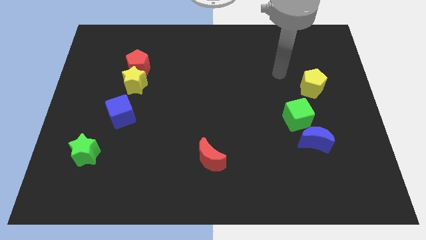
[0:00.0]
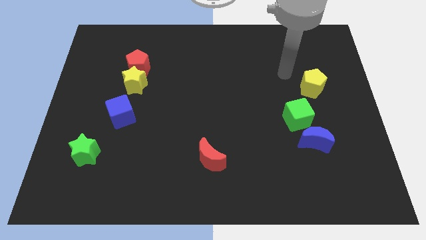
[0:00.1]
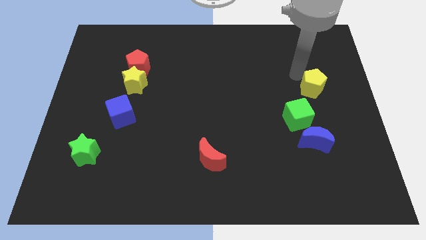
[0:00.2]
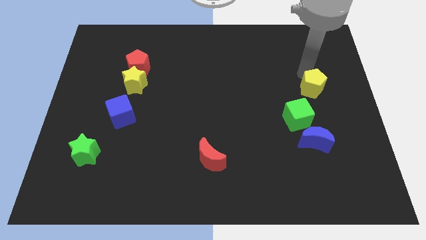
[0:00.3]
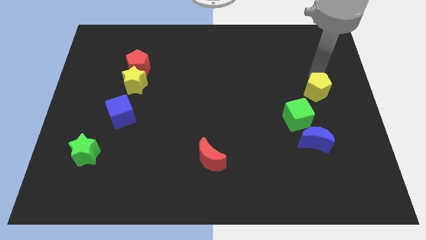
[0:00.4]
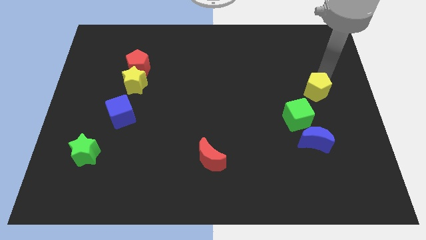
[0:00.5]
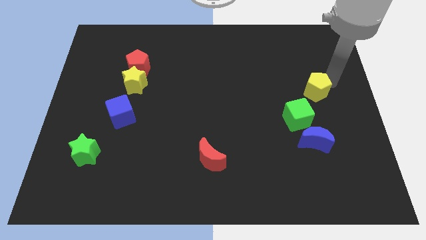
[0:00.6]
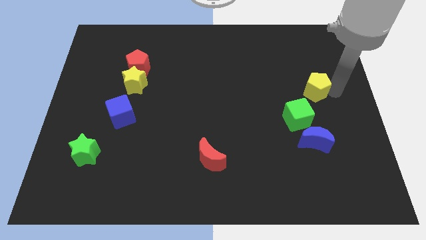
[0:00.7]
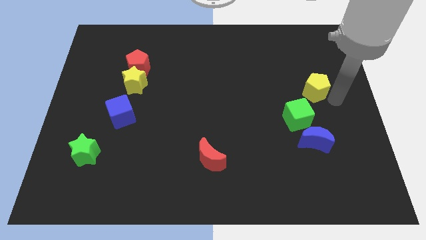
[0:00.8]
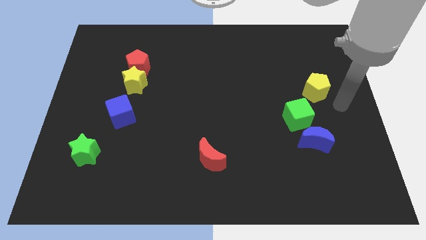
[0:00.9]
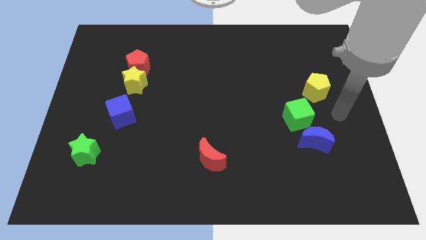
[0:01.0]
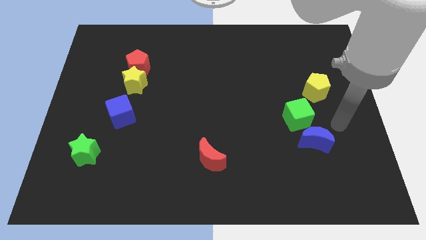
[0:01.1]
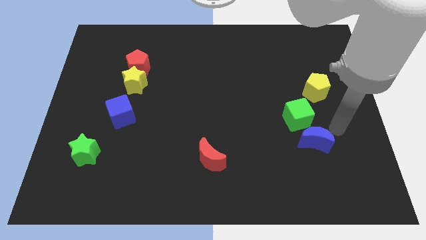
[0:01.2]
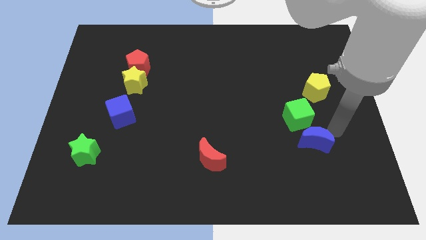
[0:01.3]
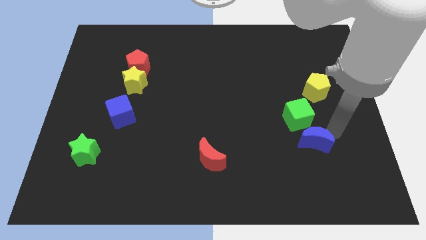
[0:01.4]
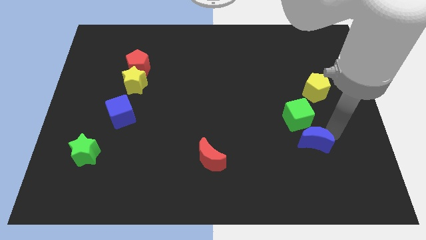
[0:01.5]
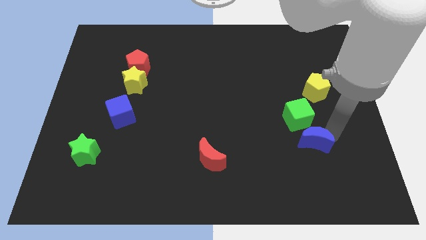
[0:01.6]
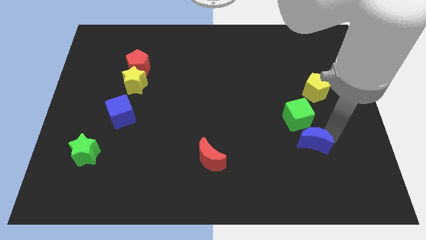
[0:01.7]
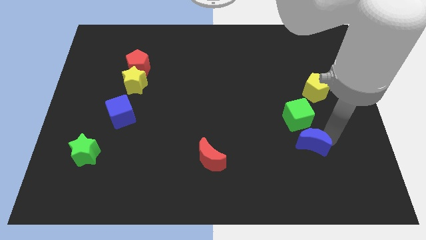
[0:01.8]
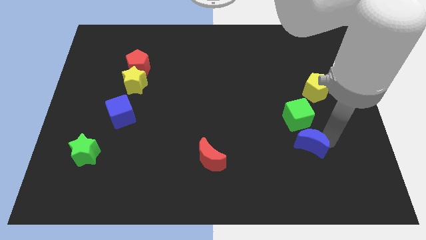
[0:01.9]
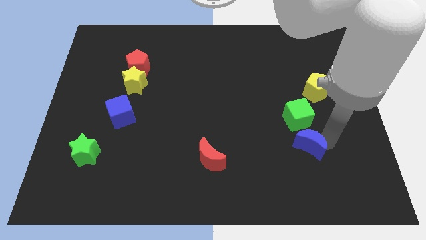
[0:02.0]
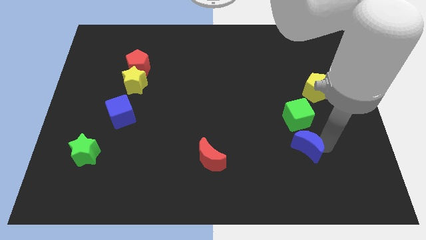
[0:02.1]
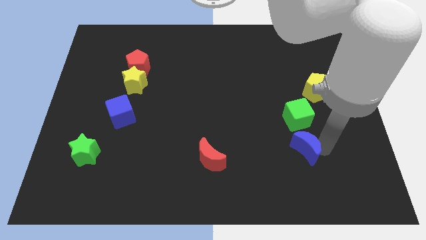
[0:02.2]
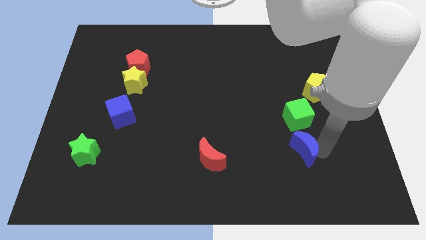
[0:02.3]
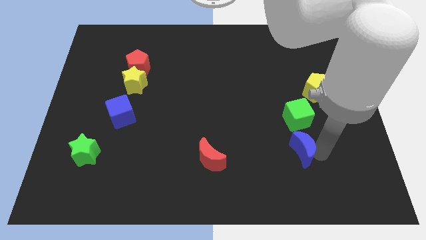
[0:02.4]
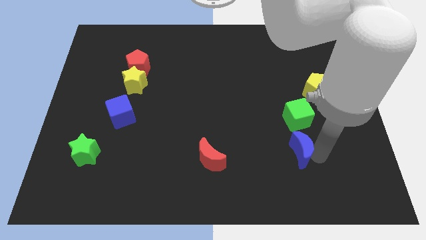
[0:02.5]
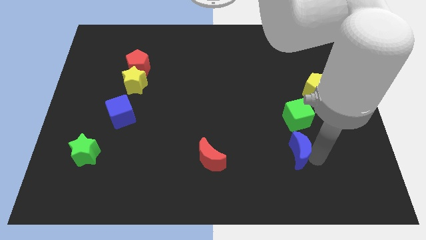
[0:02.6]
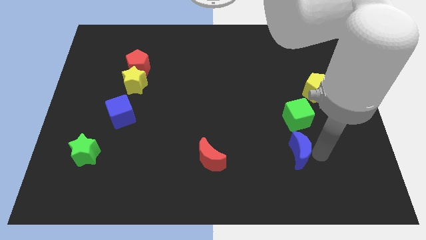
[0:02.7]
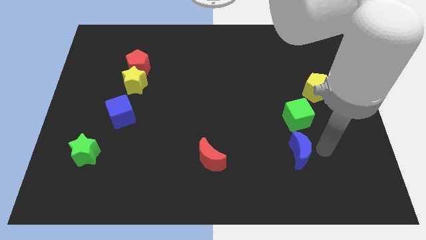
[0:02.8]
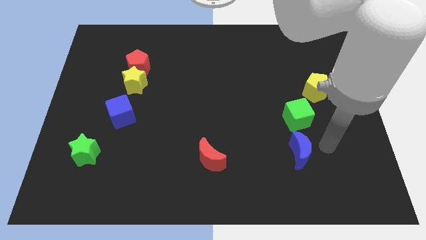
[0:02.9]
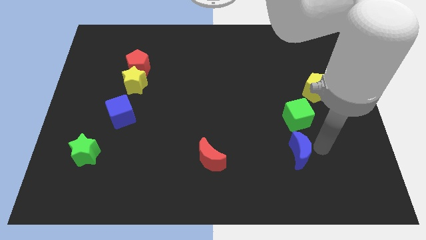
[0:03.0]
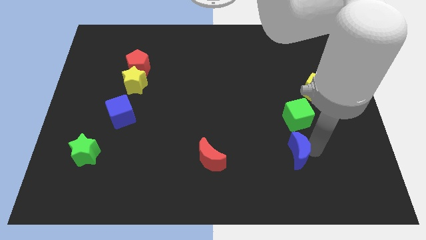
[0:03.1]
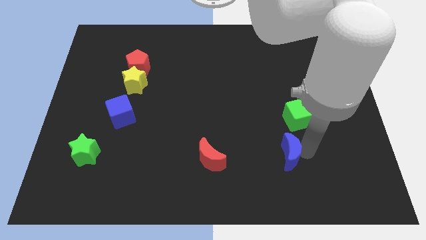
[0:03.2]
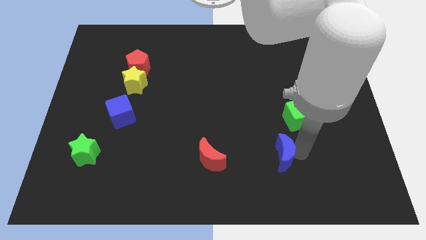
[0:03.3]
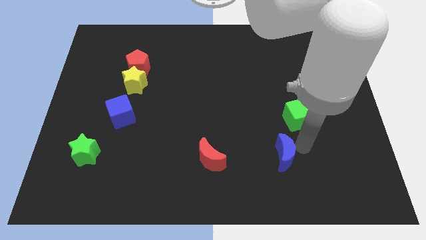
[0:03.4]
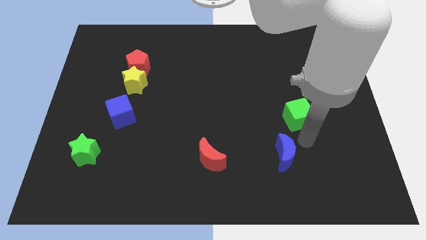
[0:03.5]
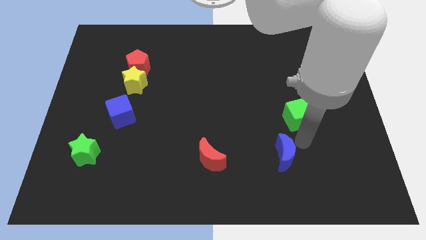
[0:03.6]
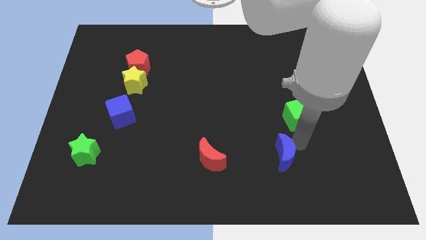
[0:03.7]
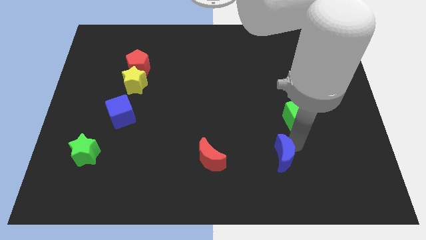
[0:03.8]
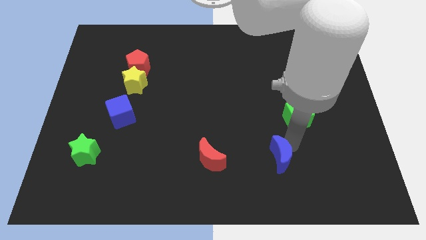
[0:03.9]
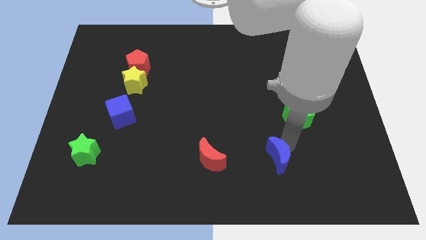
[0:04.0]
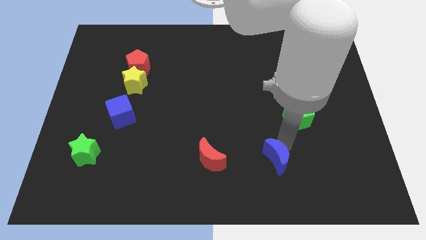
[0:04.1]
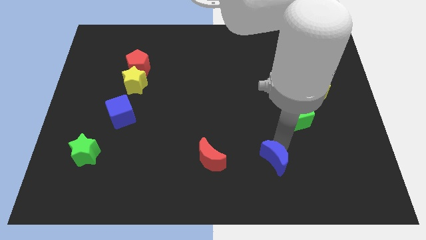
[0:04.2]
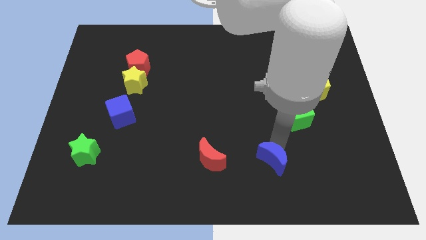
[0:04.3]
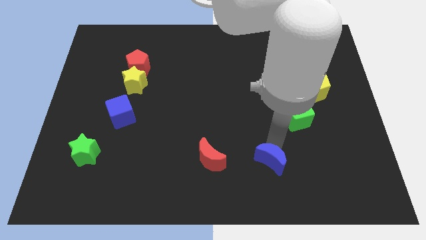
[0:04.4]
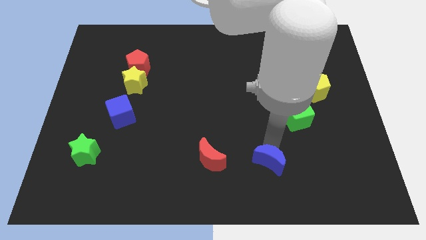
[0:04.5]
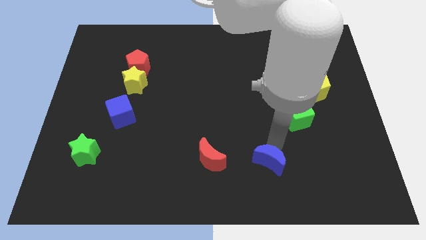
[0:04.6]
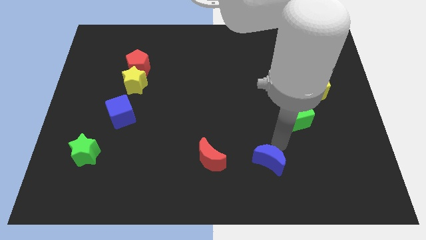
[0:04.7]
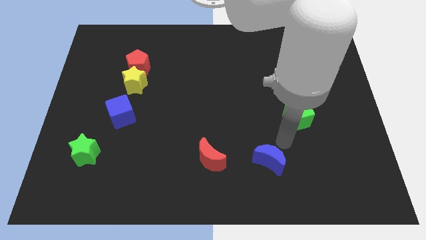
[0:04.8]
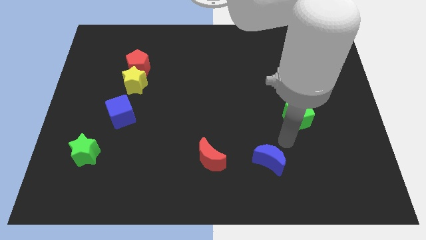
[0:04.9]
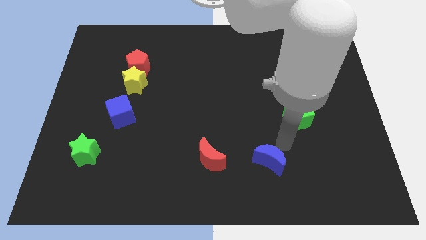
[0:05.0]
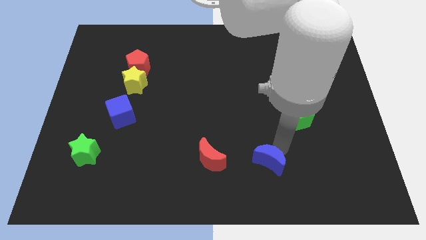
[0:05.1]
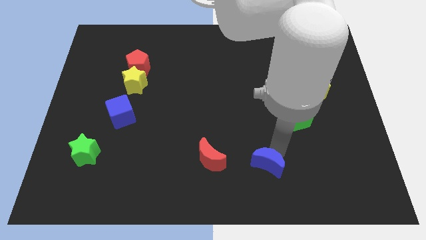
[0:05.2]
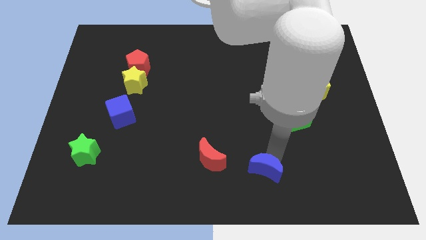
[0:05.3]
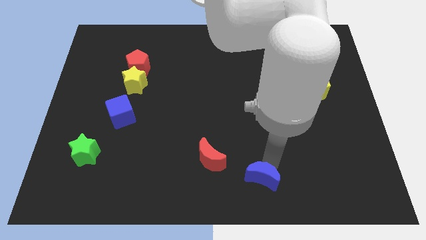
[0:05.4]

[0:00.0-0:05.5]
put the blue moon to the bottom side
